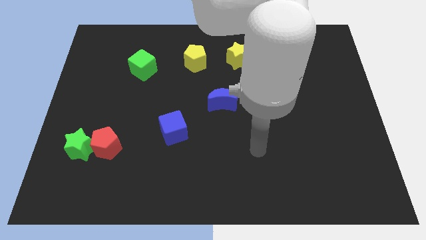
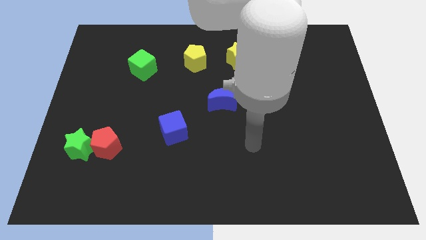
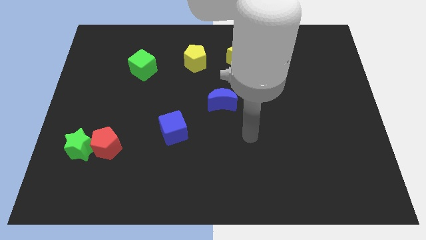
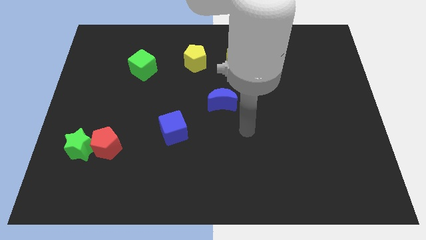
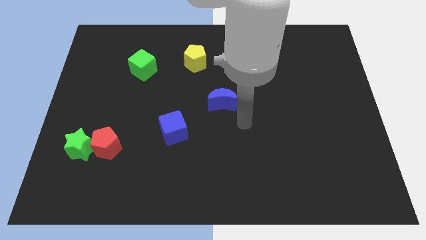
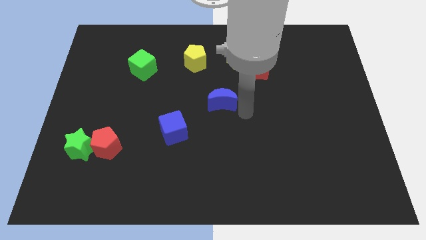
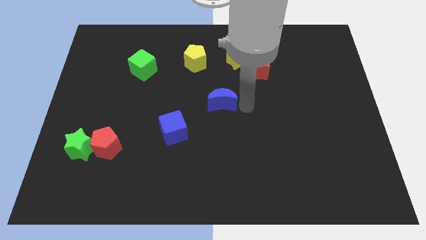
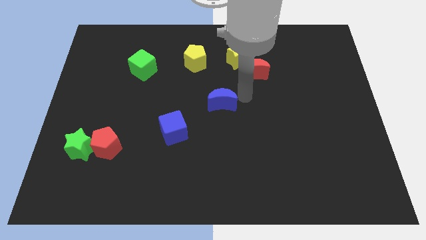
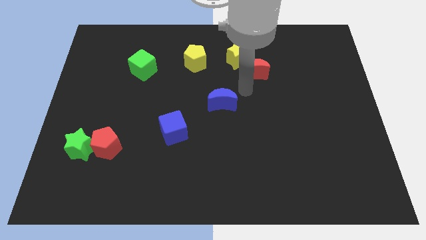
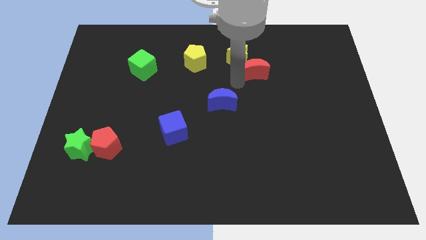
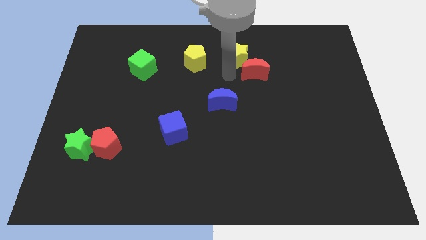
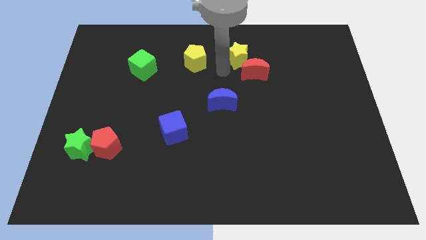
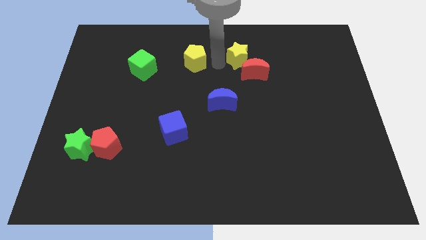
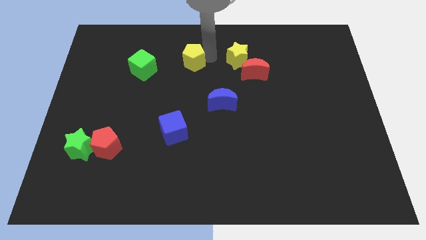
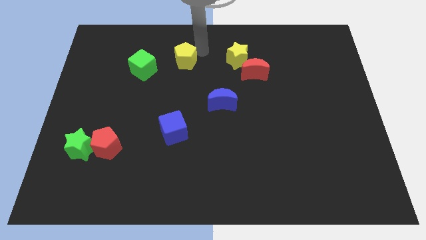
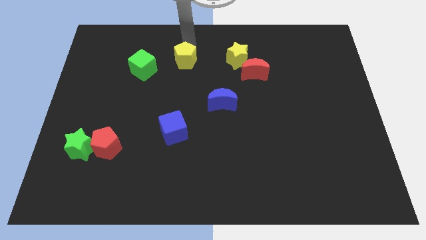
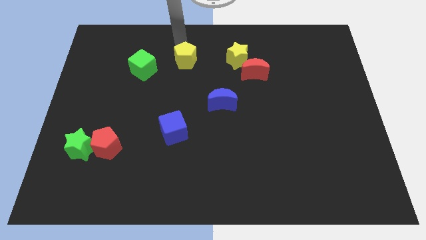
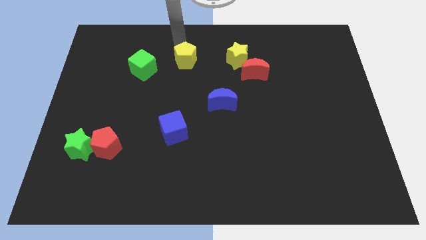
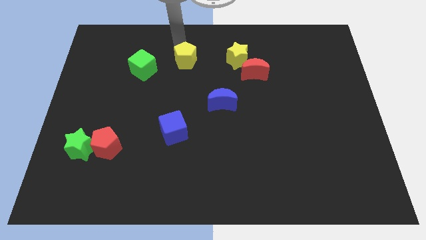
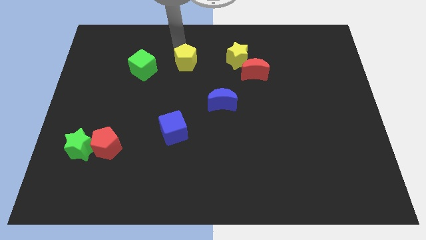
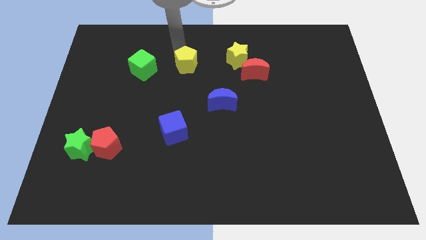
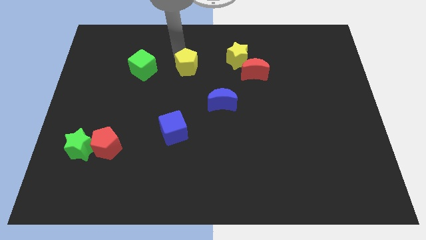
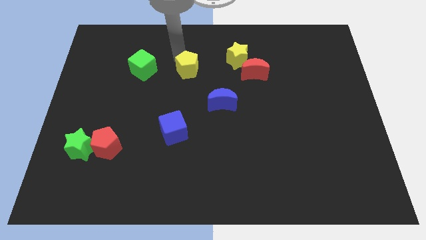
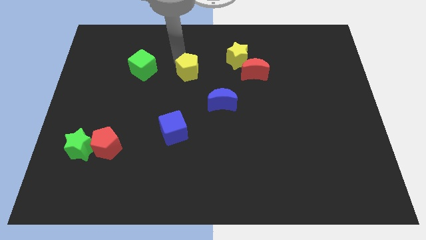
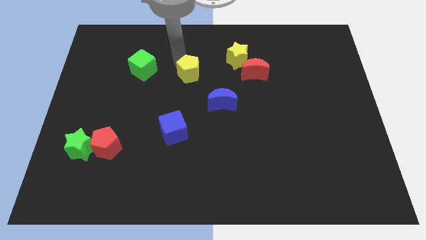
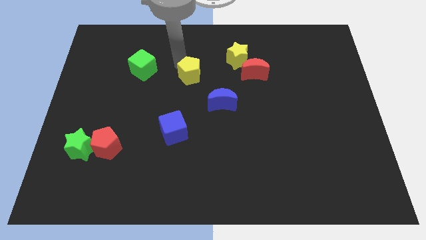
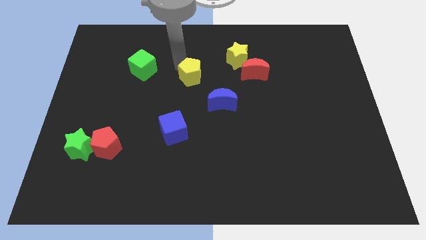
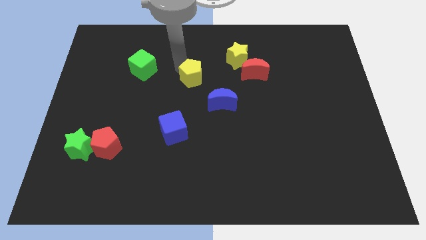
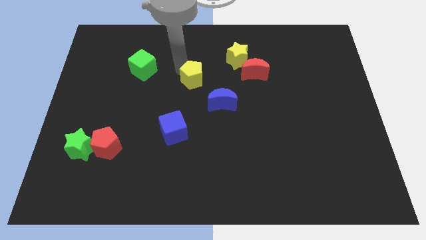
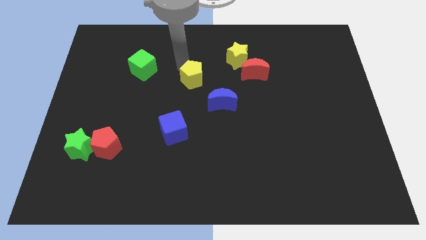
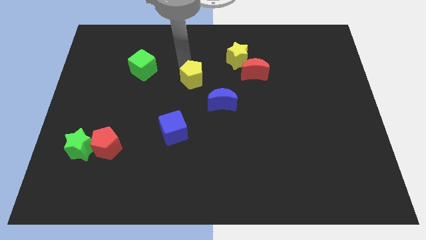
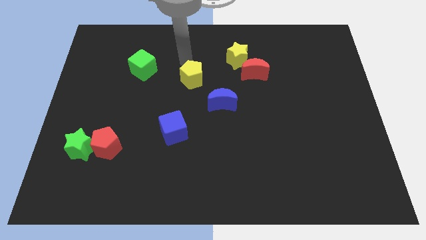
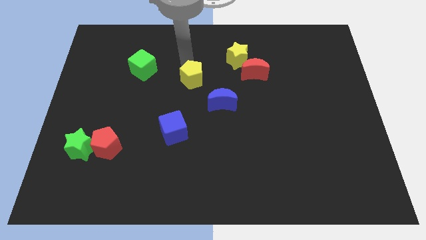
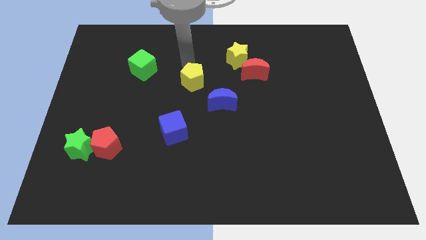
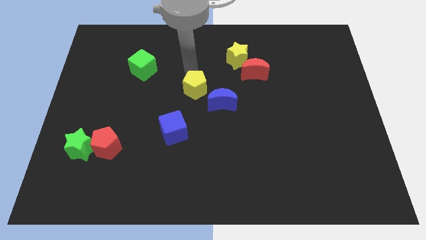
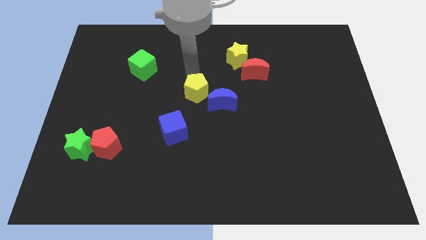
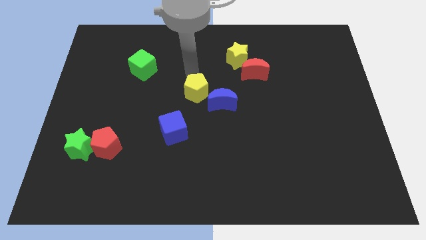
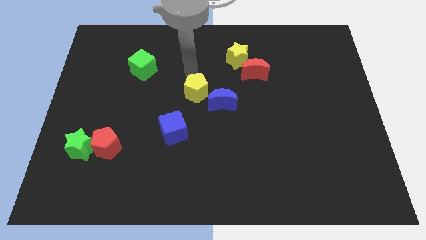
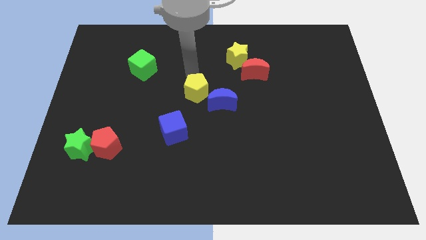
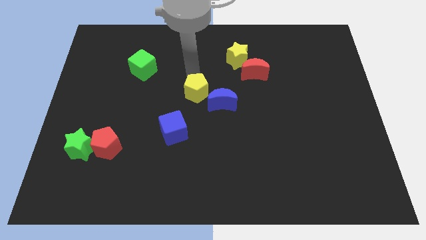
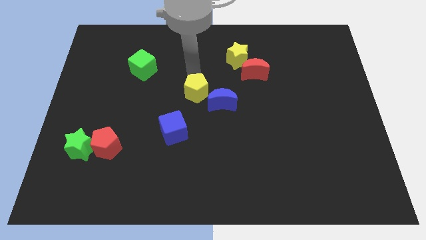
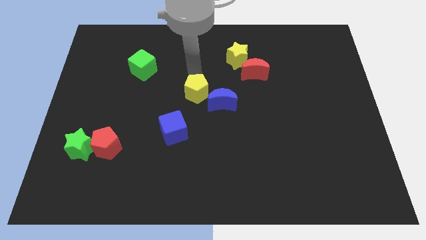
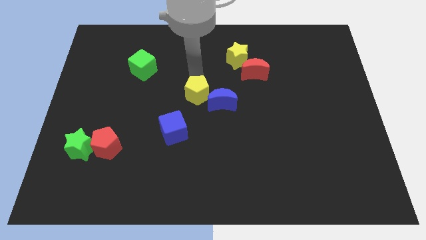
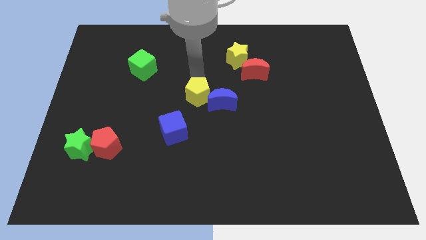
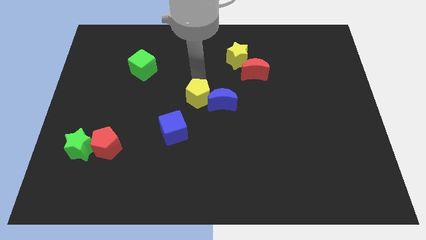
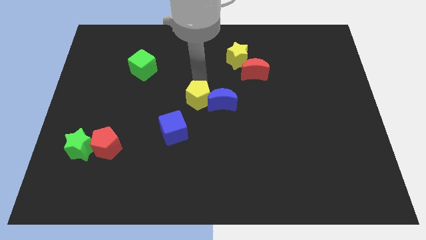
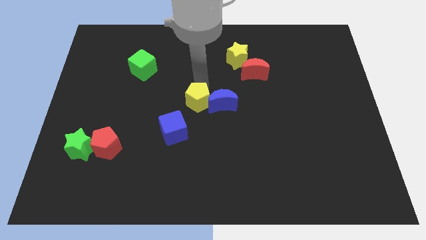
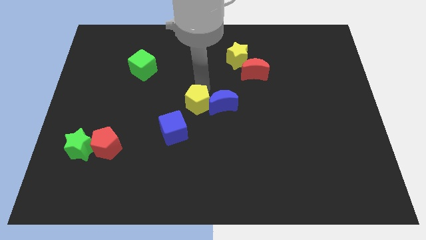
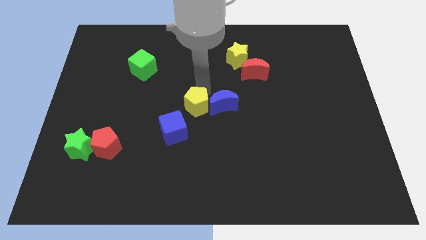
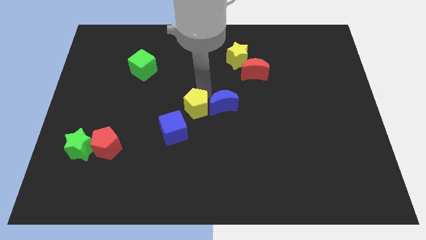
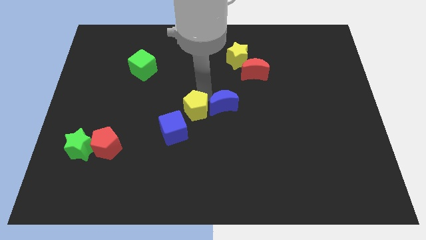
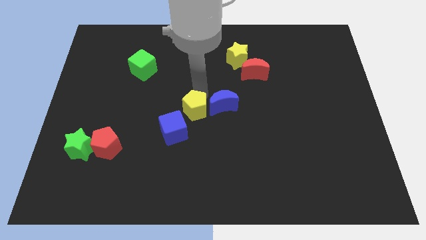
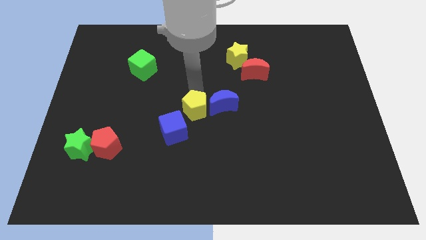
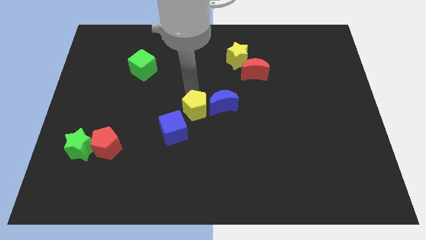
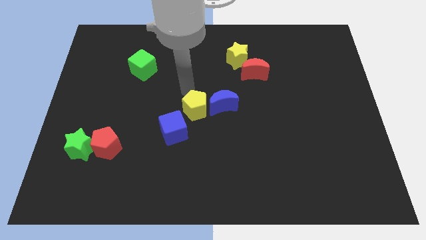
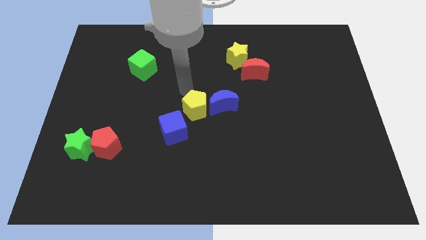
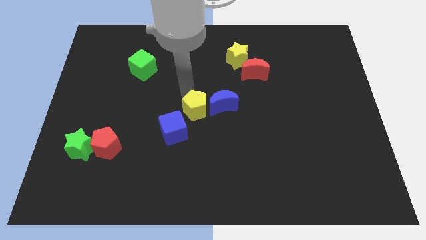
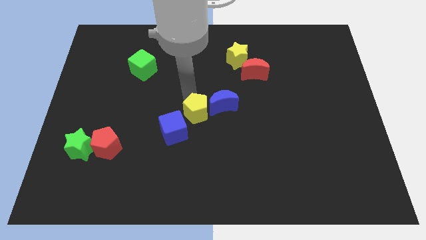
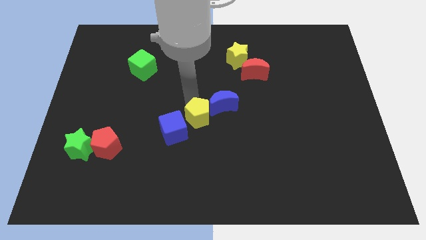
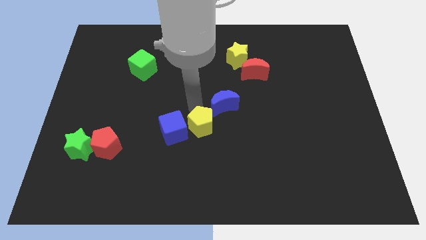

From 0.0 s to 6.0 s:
slide the yellow pentagon downwards

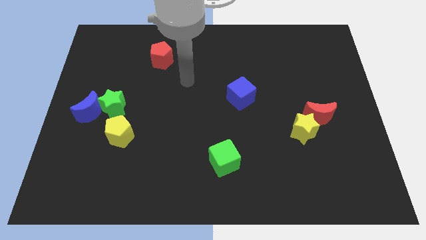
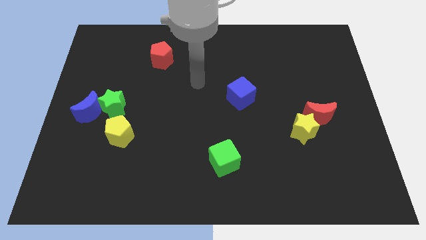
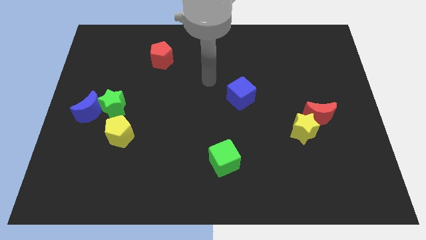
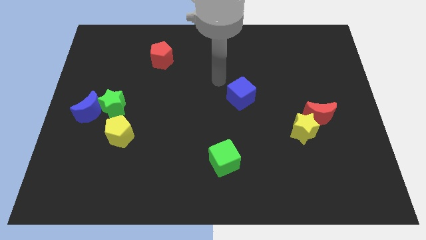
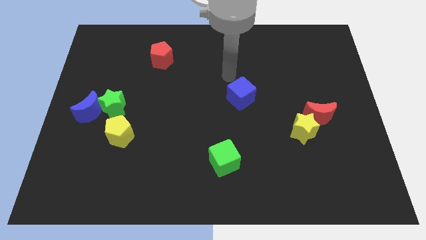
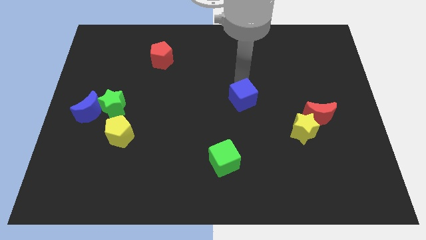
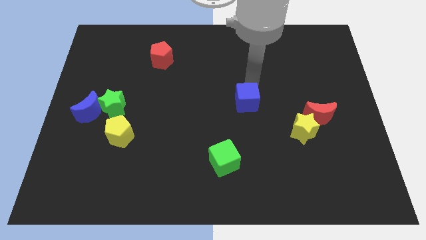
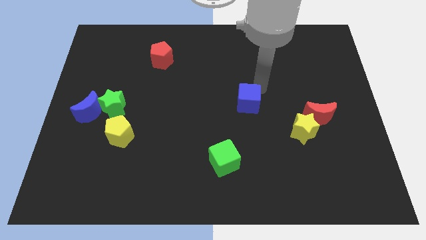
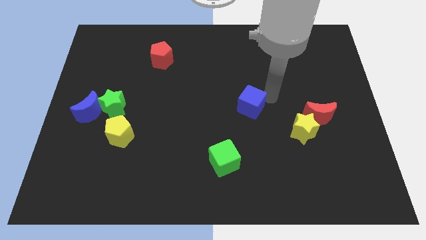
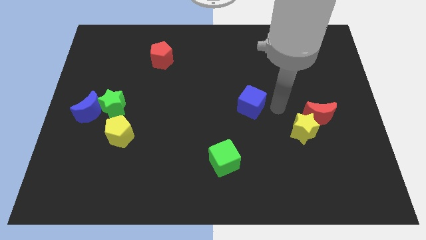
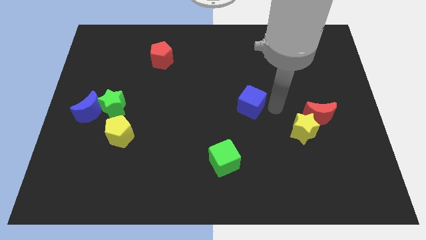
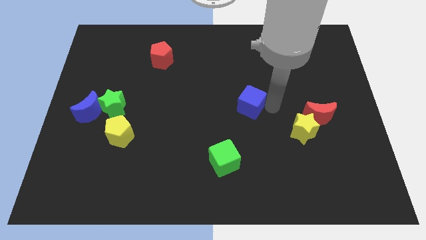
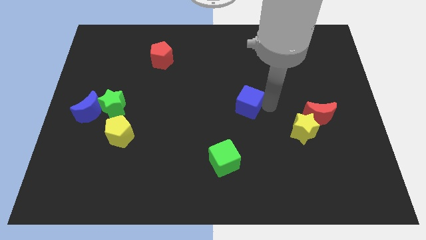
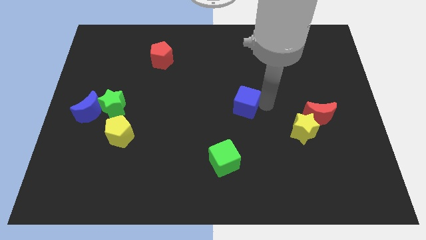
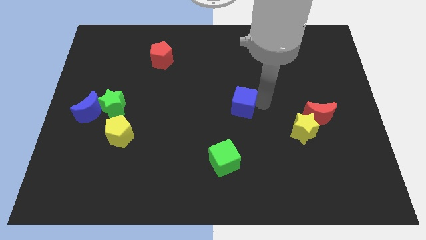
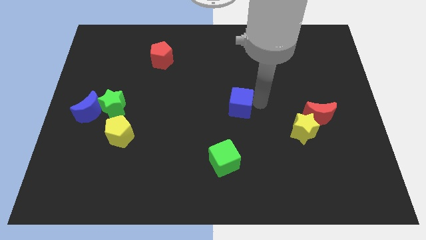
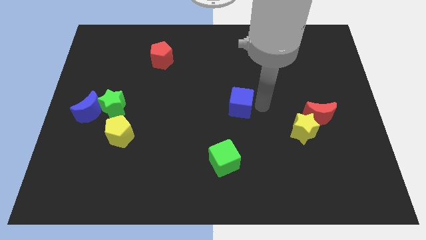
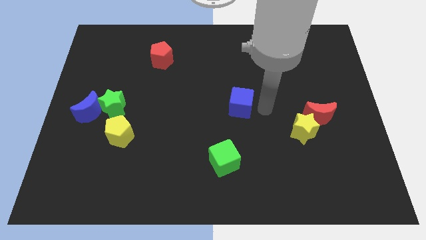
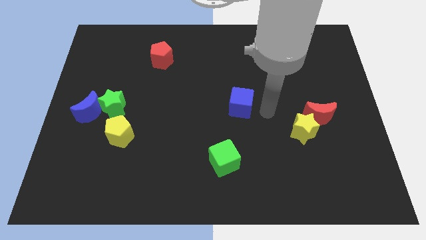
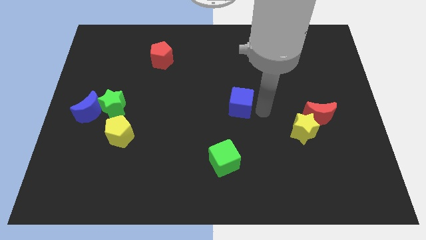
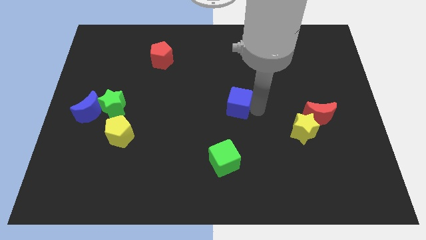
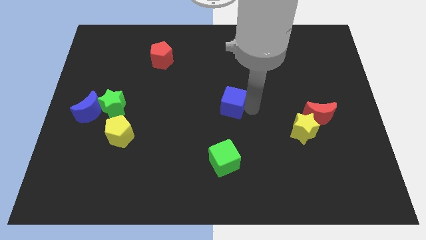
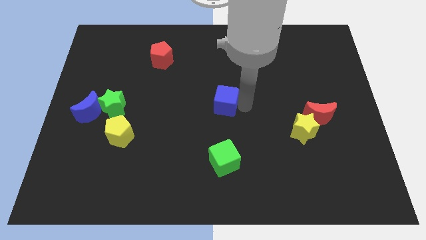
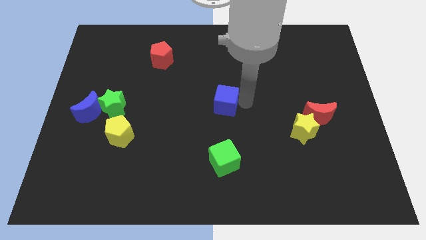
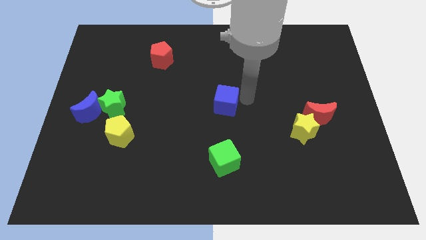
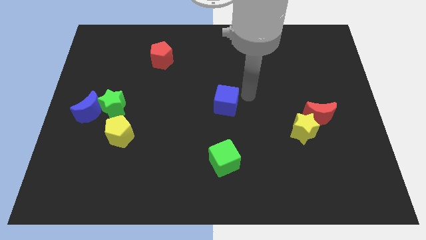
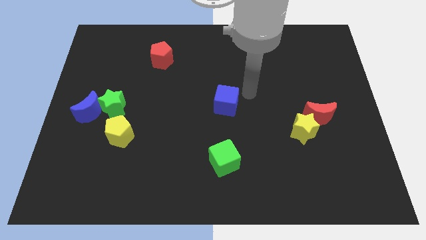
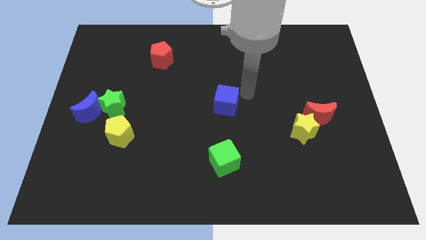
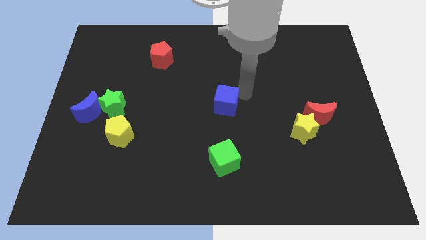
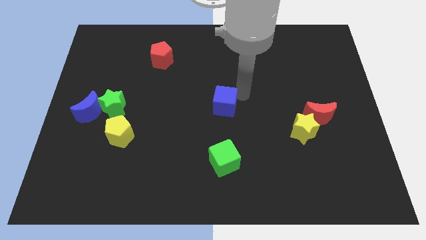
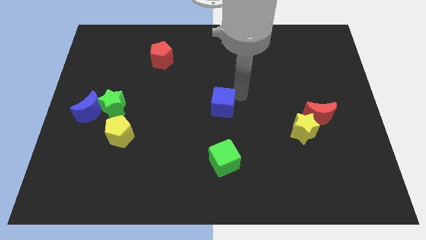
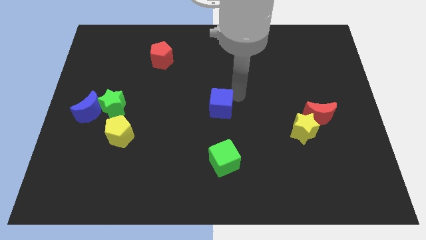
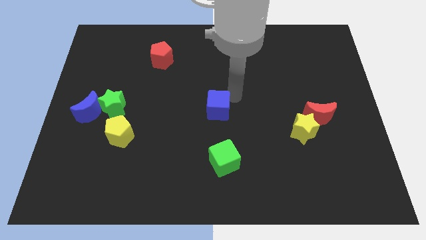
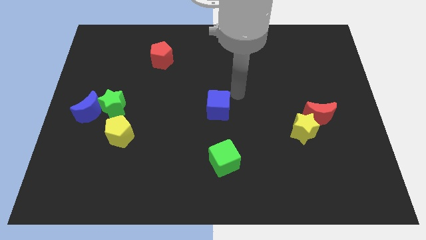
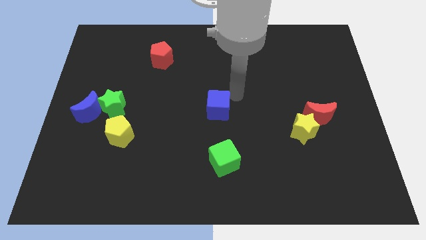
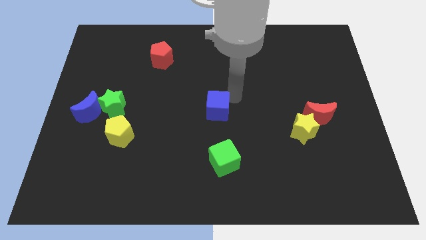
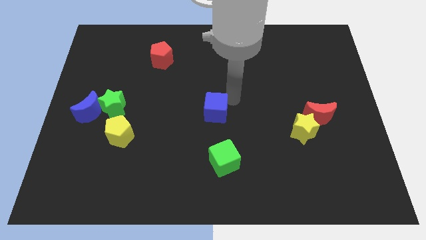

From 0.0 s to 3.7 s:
slightly move the blue cube down and then to the left
